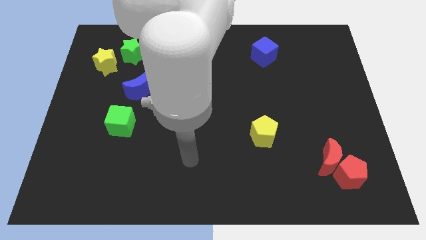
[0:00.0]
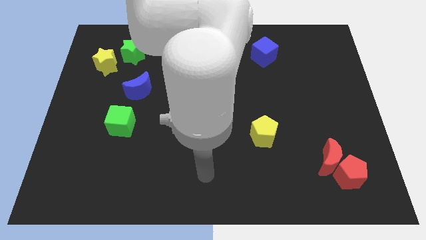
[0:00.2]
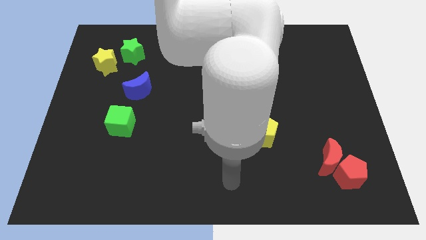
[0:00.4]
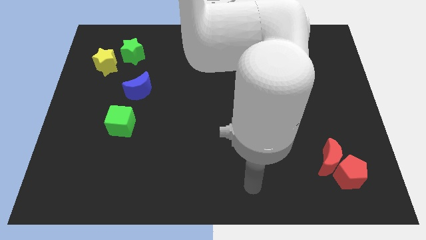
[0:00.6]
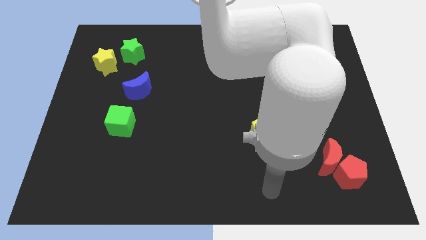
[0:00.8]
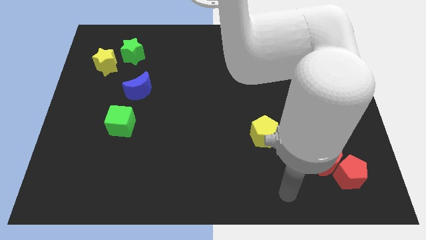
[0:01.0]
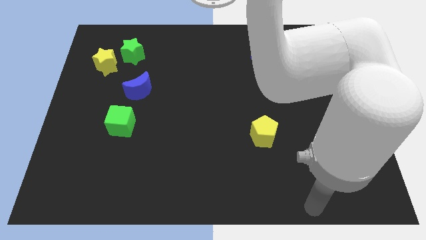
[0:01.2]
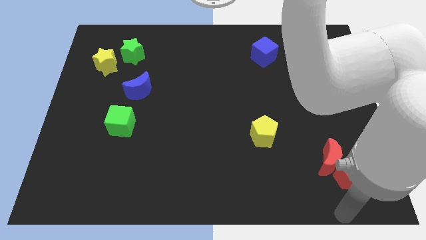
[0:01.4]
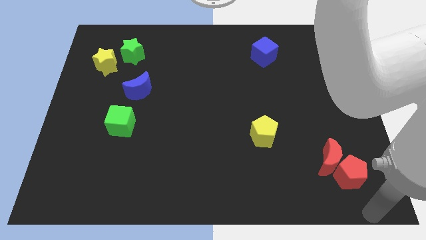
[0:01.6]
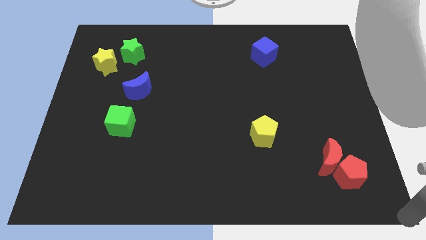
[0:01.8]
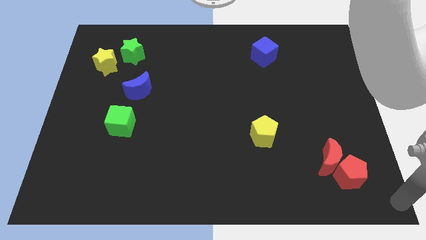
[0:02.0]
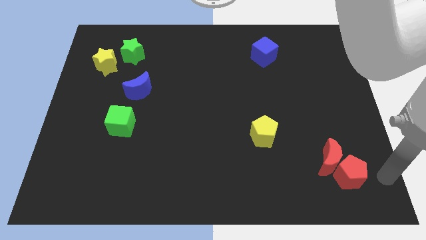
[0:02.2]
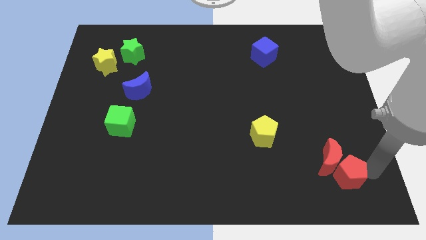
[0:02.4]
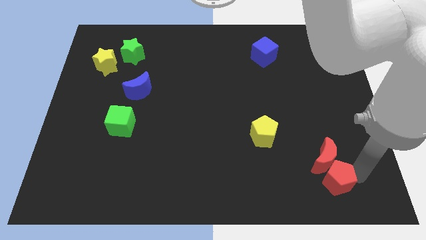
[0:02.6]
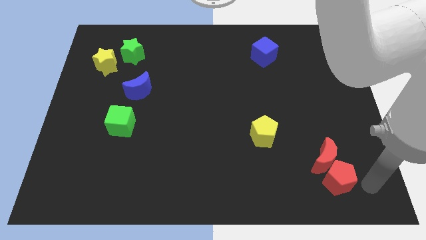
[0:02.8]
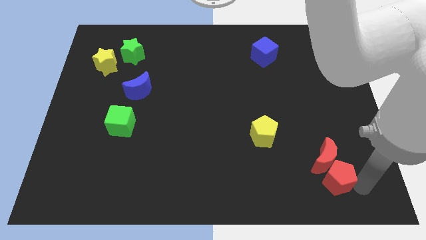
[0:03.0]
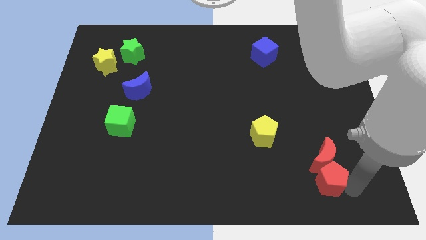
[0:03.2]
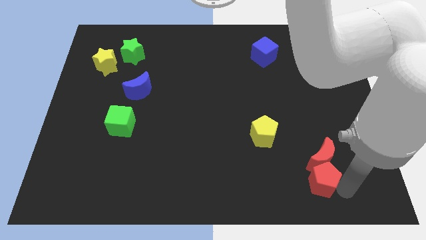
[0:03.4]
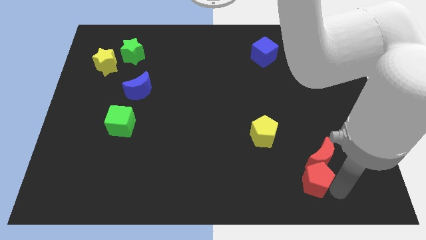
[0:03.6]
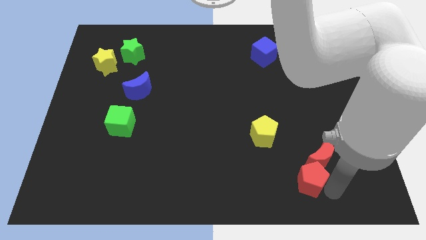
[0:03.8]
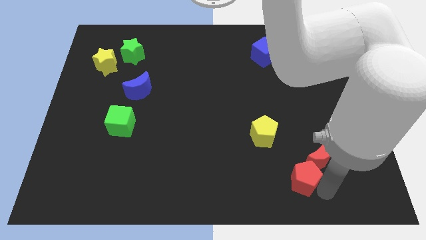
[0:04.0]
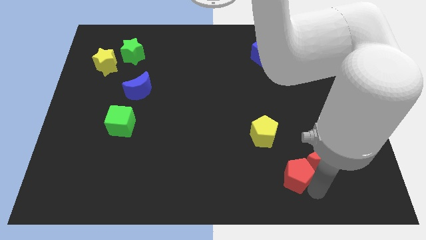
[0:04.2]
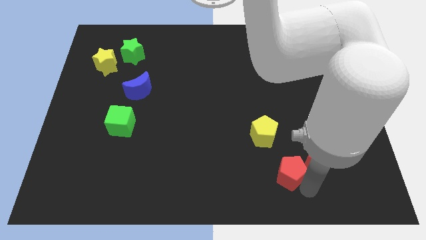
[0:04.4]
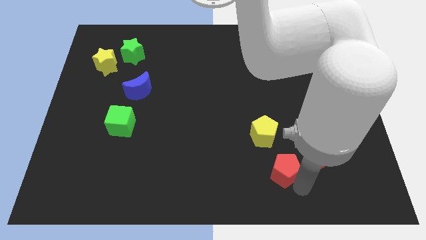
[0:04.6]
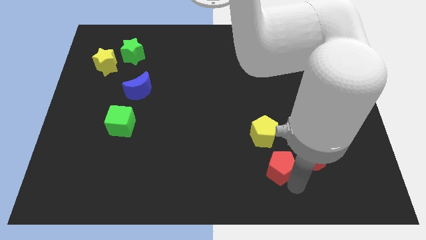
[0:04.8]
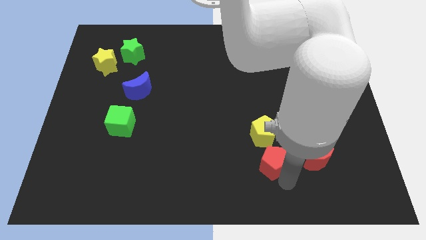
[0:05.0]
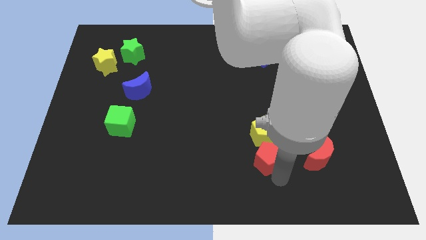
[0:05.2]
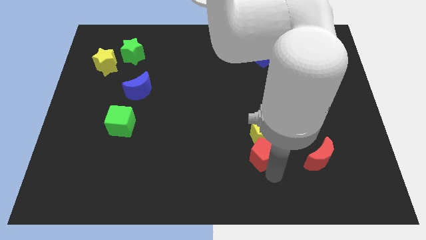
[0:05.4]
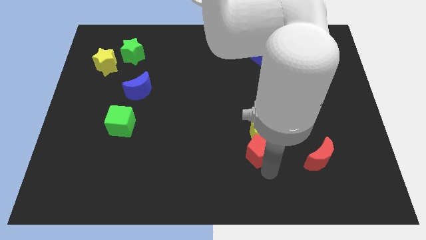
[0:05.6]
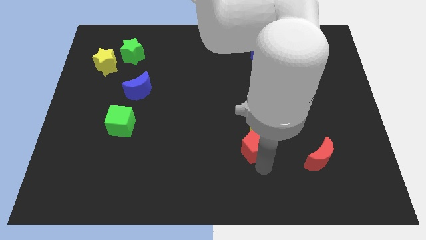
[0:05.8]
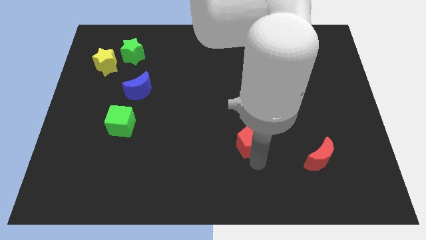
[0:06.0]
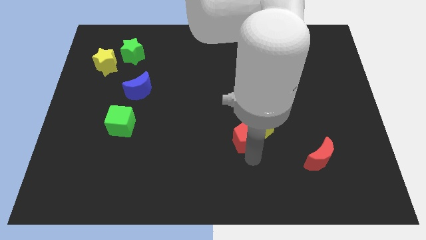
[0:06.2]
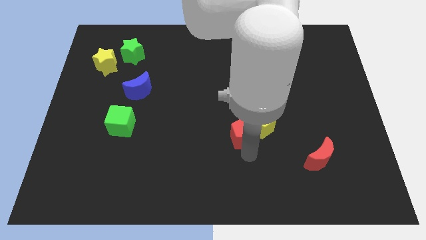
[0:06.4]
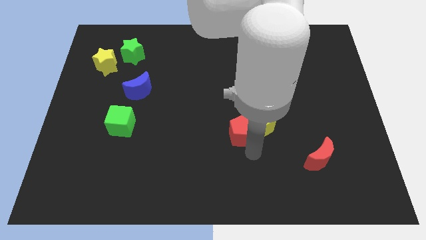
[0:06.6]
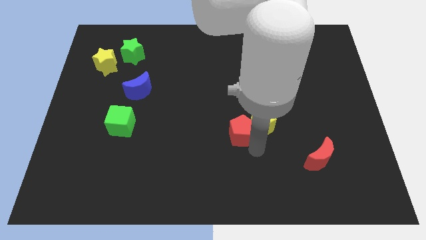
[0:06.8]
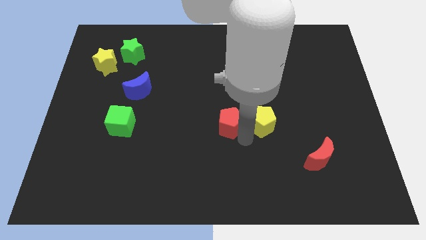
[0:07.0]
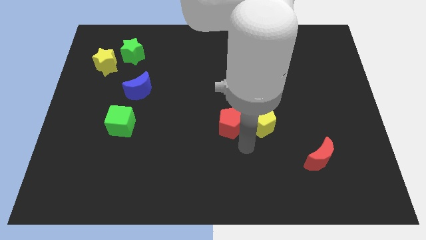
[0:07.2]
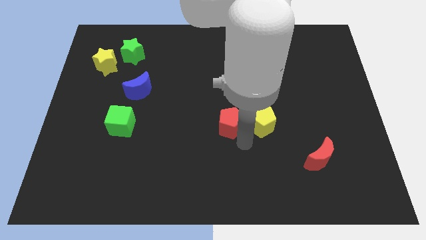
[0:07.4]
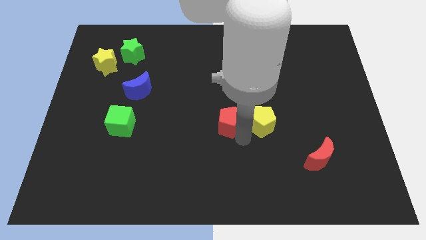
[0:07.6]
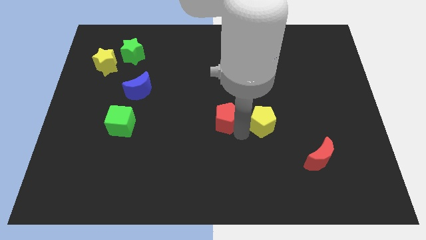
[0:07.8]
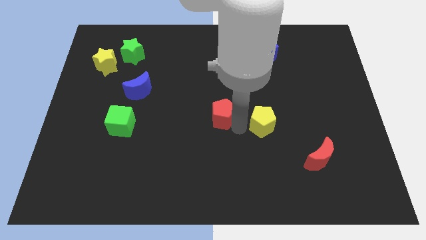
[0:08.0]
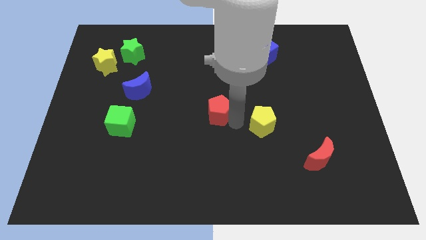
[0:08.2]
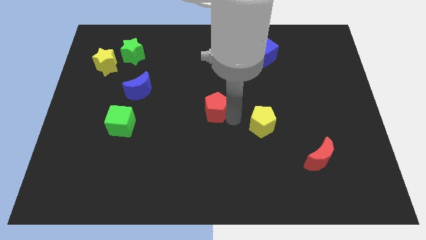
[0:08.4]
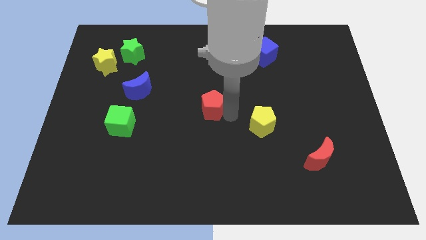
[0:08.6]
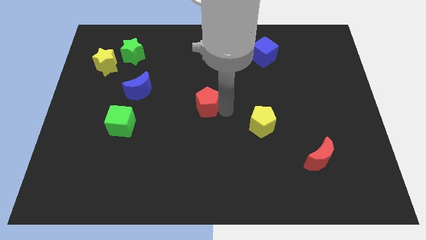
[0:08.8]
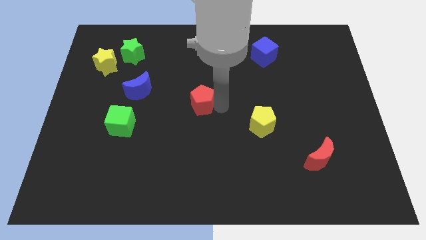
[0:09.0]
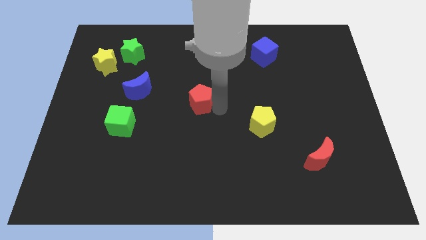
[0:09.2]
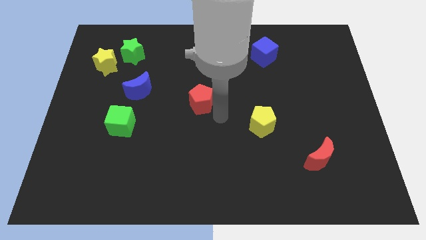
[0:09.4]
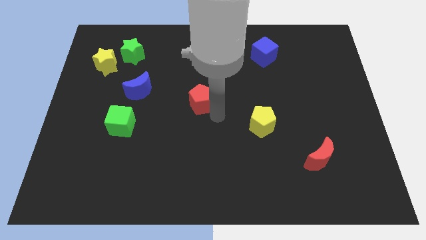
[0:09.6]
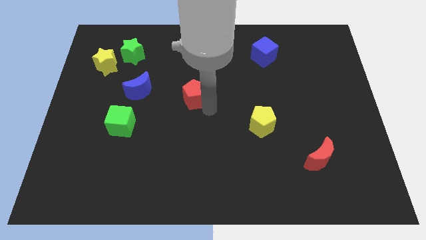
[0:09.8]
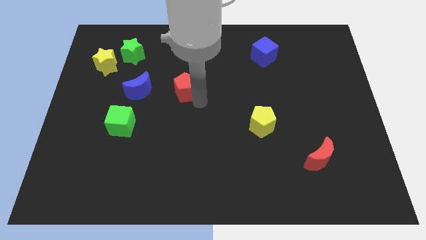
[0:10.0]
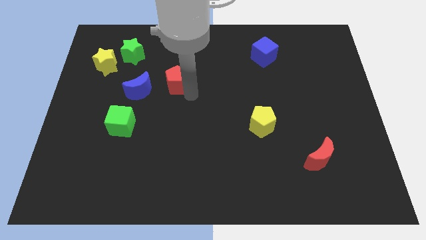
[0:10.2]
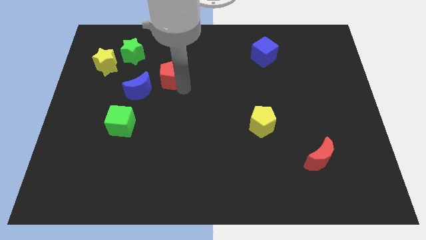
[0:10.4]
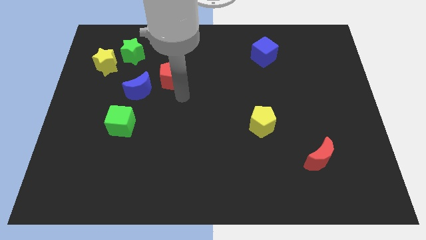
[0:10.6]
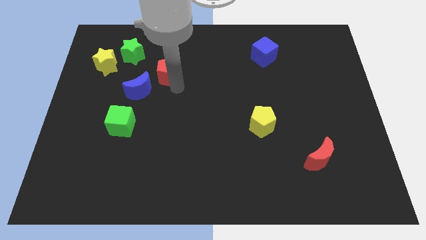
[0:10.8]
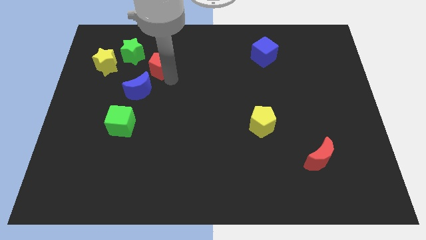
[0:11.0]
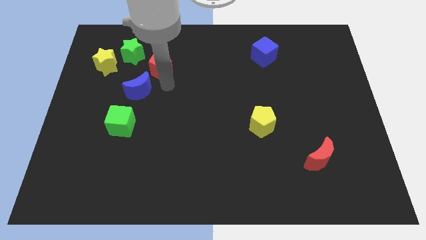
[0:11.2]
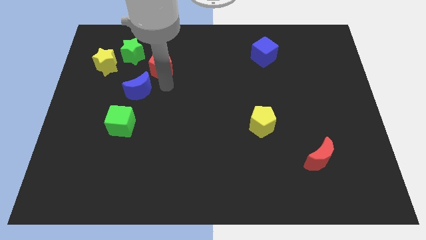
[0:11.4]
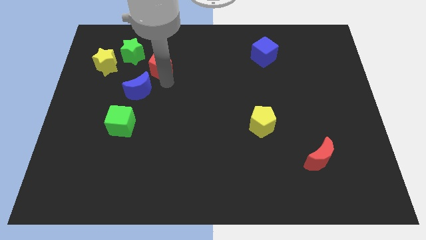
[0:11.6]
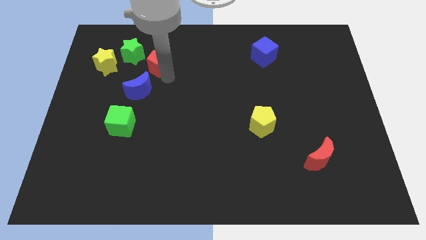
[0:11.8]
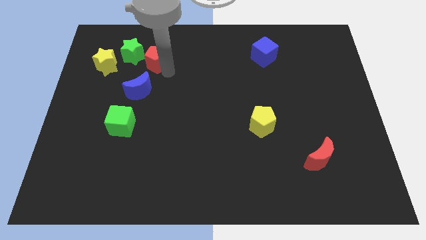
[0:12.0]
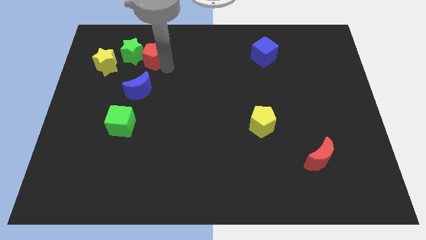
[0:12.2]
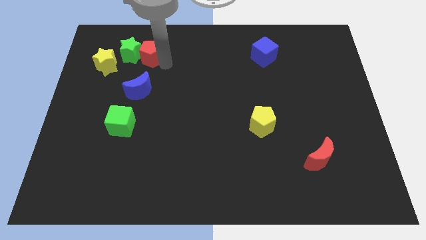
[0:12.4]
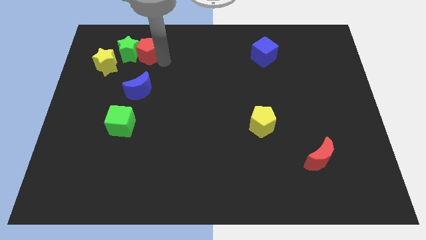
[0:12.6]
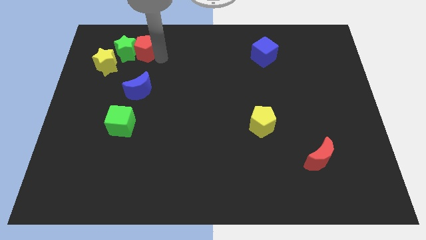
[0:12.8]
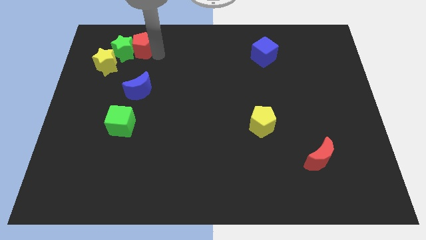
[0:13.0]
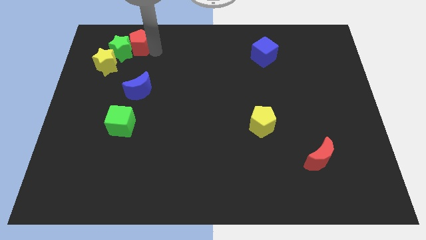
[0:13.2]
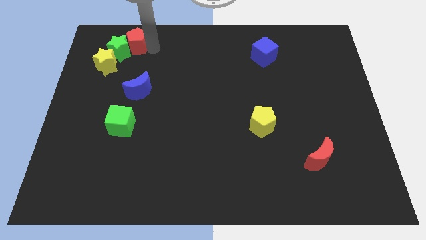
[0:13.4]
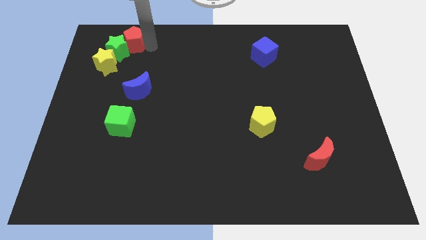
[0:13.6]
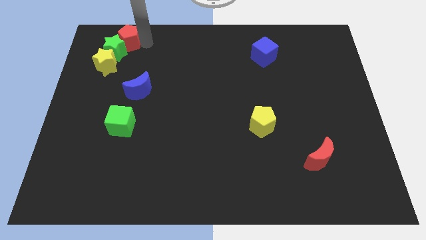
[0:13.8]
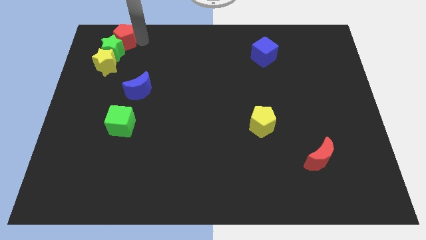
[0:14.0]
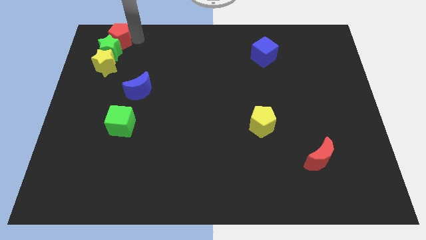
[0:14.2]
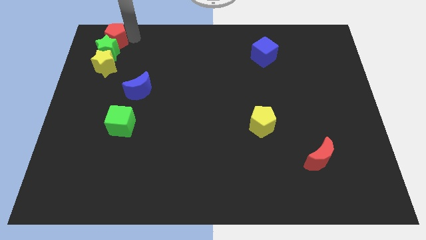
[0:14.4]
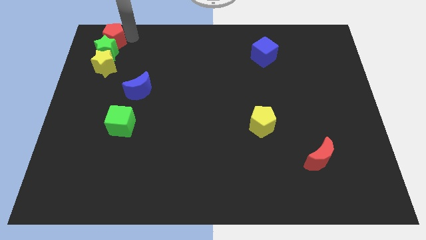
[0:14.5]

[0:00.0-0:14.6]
move the red pentagon to the top left
